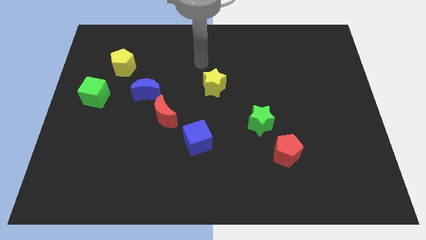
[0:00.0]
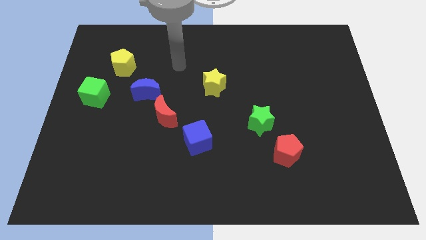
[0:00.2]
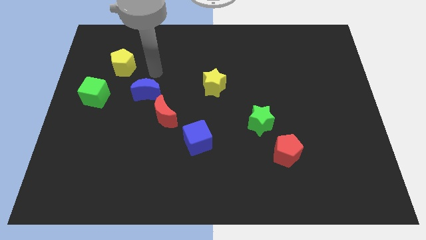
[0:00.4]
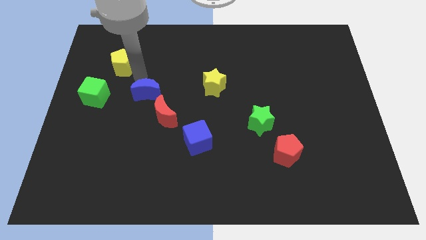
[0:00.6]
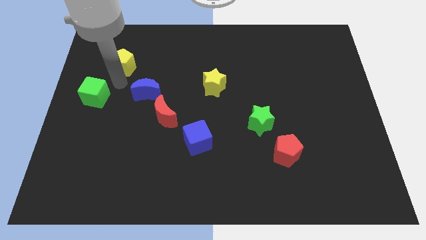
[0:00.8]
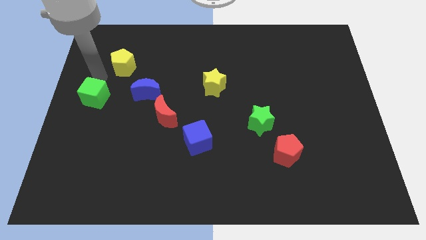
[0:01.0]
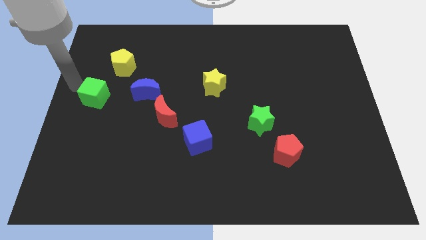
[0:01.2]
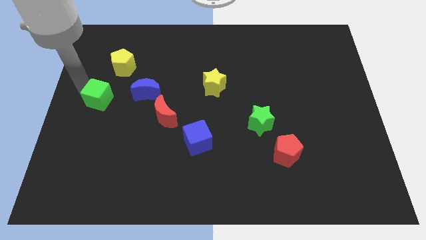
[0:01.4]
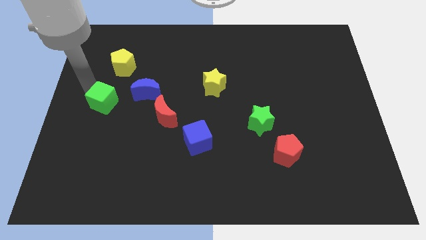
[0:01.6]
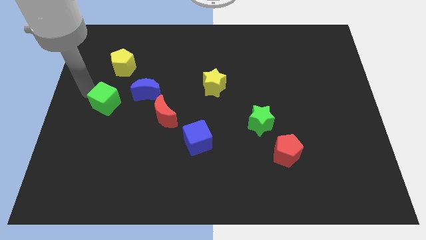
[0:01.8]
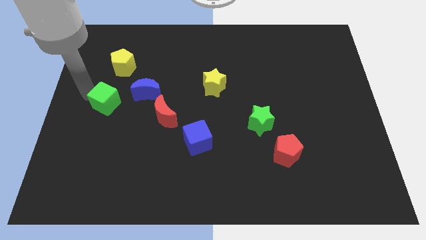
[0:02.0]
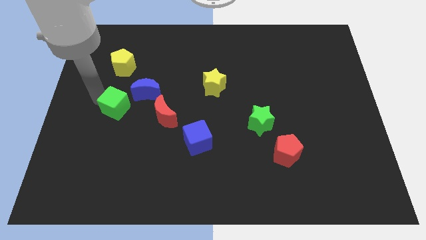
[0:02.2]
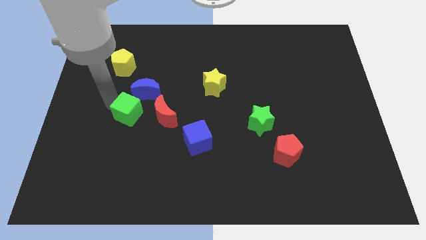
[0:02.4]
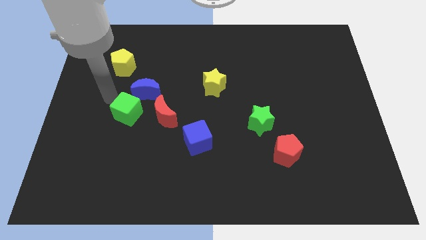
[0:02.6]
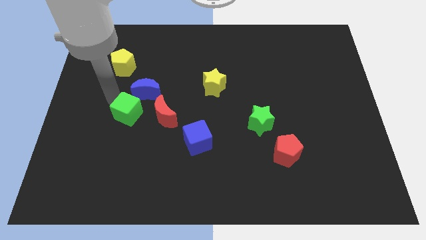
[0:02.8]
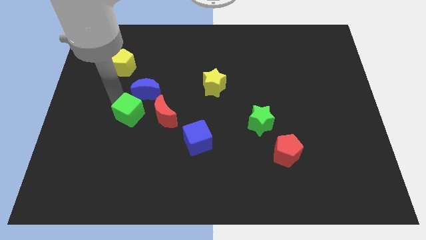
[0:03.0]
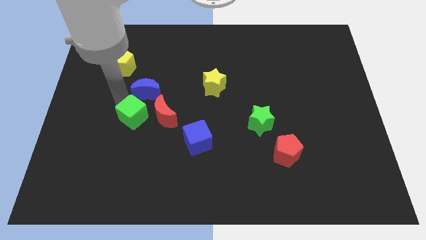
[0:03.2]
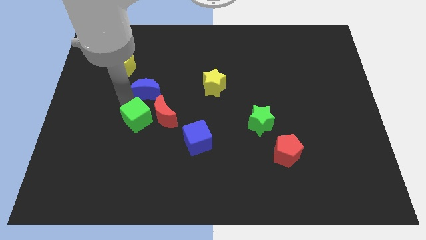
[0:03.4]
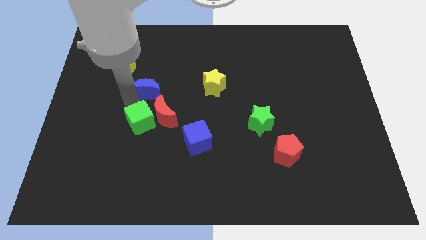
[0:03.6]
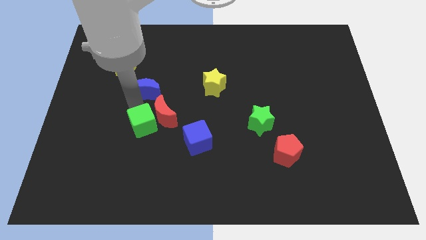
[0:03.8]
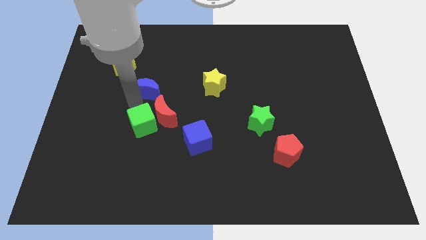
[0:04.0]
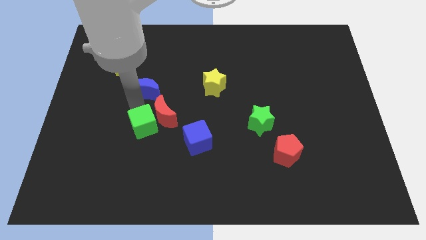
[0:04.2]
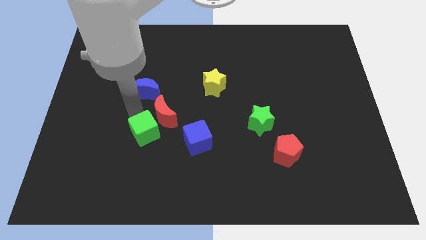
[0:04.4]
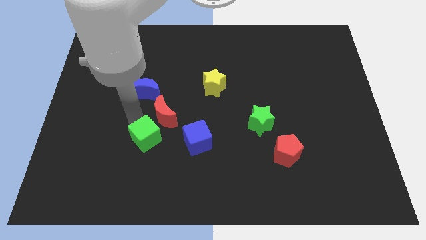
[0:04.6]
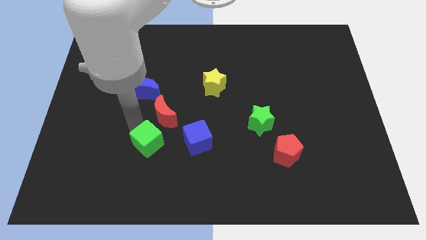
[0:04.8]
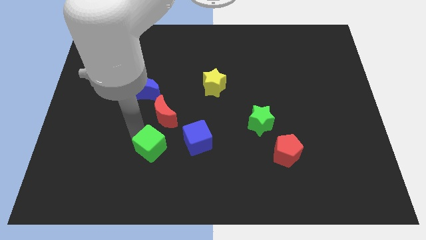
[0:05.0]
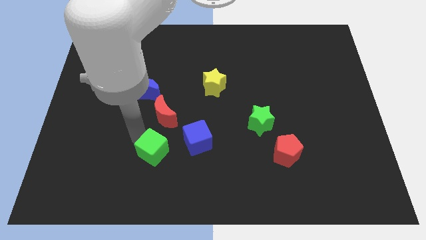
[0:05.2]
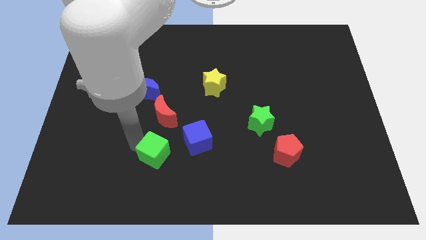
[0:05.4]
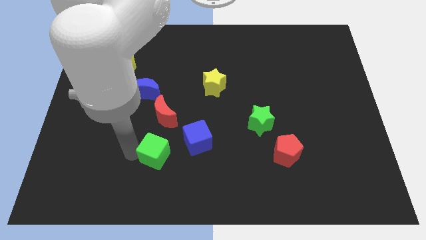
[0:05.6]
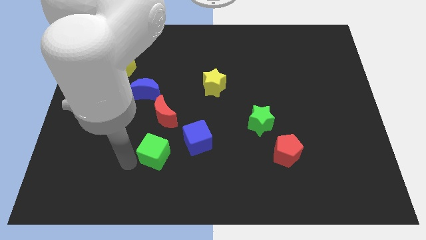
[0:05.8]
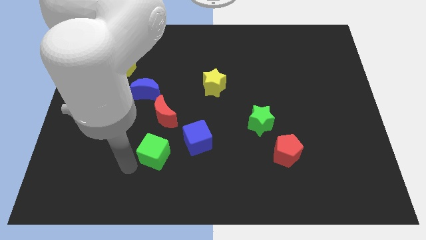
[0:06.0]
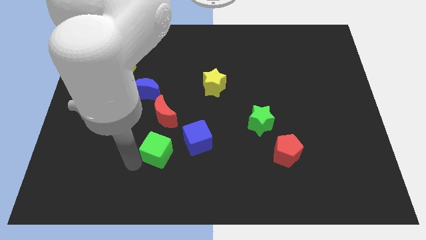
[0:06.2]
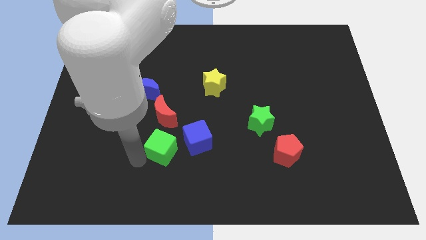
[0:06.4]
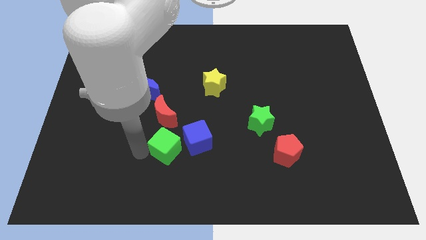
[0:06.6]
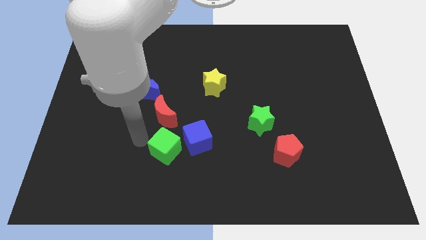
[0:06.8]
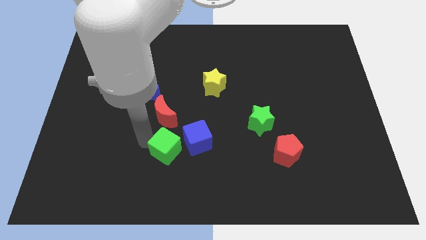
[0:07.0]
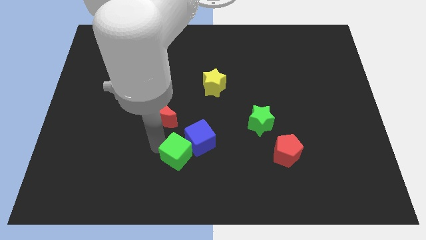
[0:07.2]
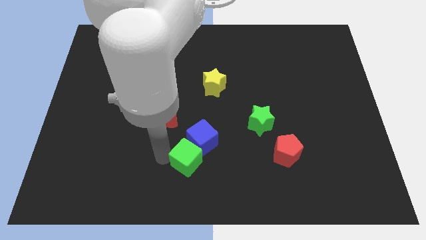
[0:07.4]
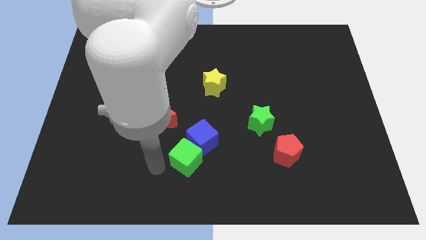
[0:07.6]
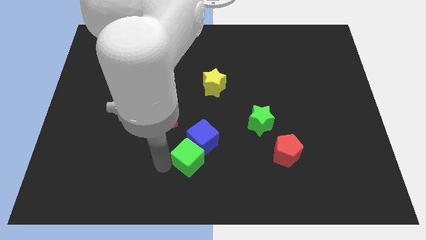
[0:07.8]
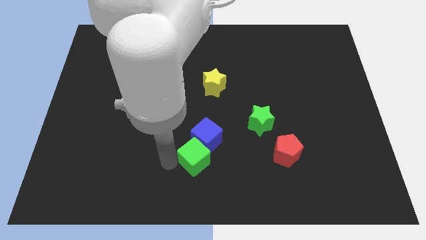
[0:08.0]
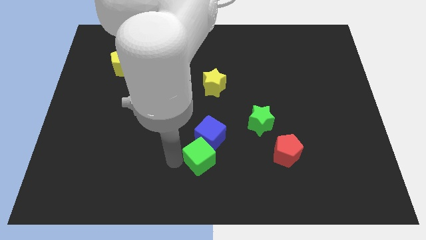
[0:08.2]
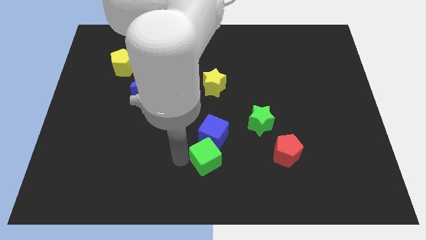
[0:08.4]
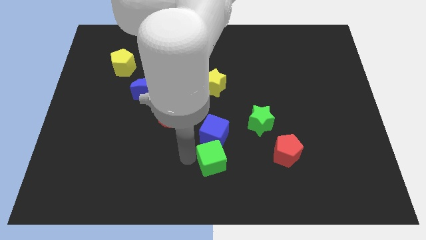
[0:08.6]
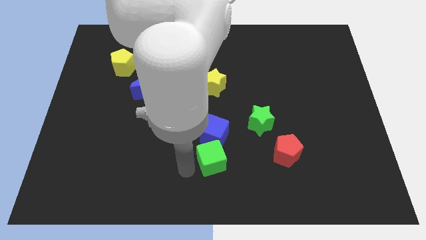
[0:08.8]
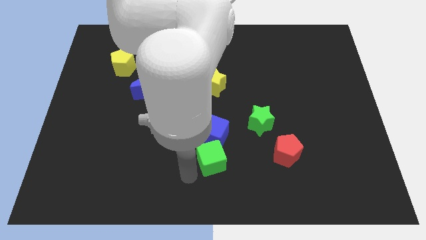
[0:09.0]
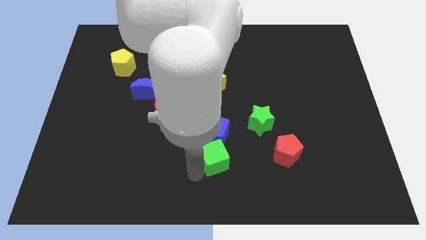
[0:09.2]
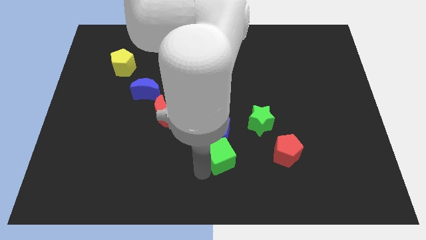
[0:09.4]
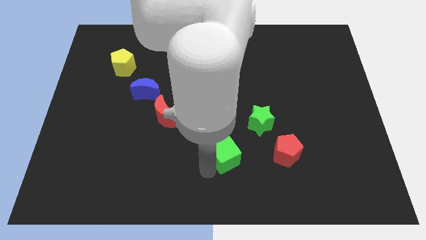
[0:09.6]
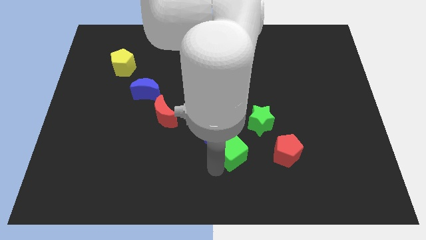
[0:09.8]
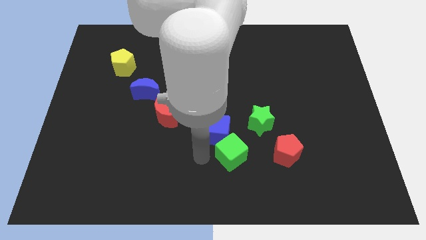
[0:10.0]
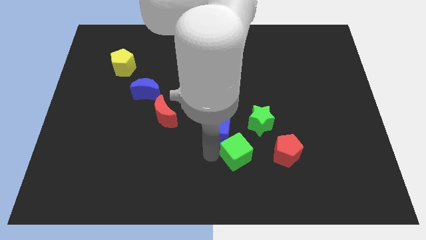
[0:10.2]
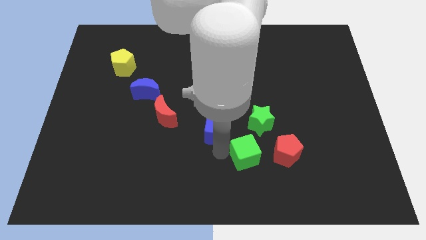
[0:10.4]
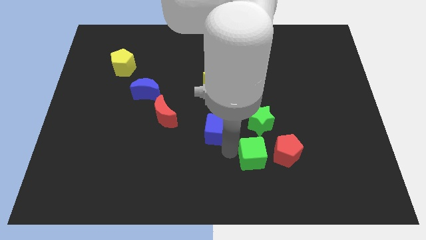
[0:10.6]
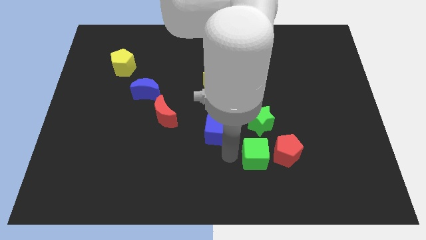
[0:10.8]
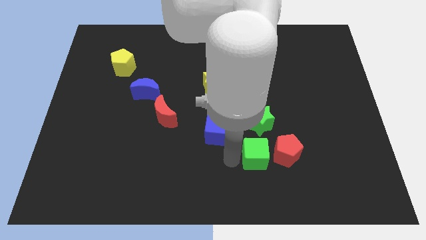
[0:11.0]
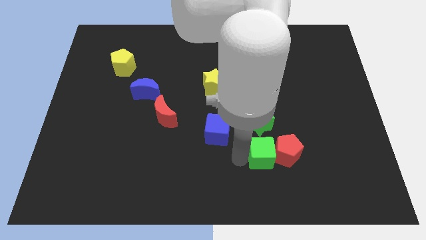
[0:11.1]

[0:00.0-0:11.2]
push the green cube to the red pentagon

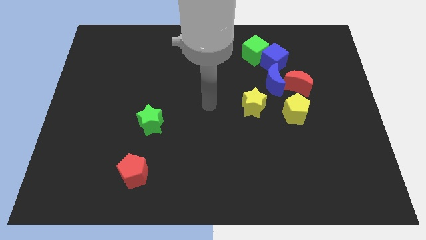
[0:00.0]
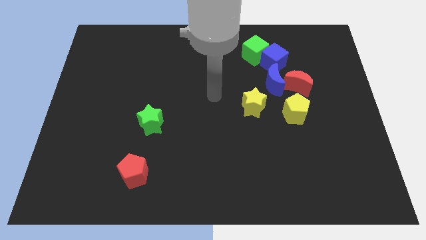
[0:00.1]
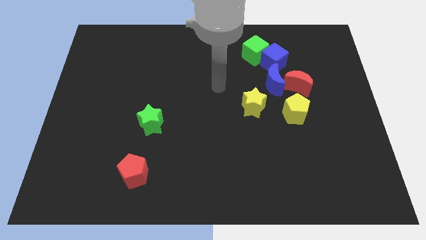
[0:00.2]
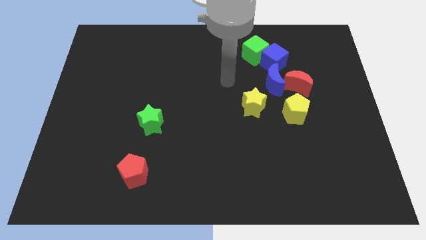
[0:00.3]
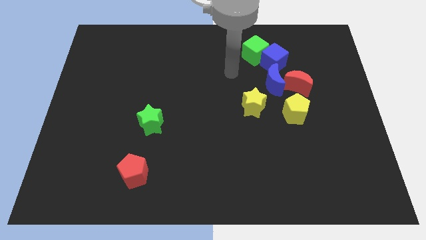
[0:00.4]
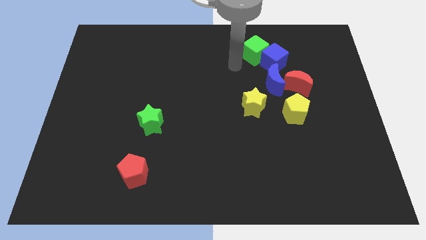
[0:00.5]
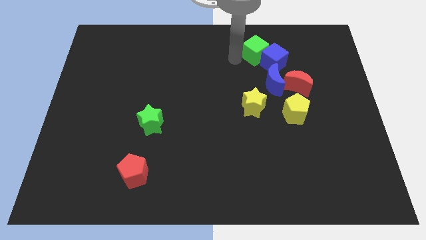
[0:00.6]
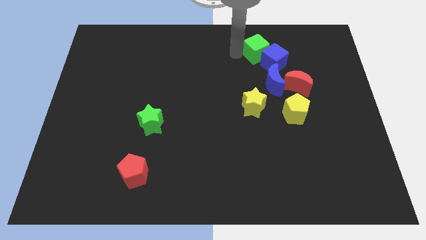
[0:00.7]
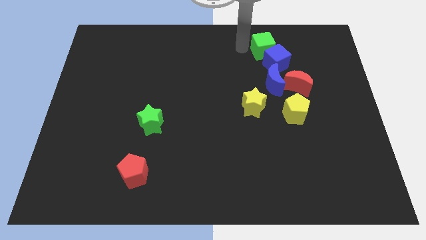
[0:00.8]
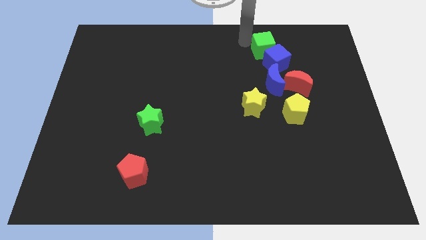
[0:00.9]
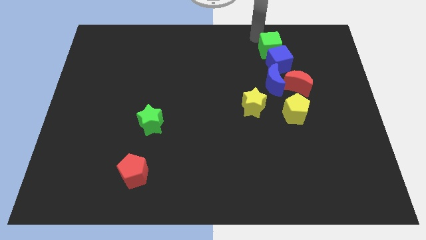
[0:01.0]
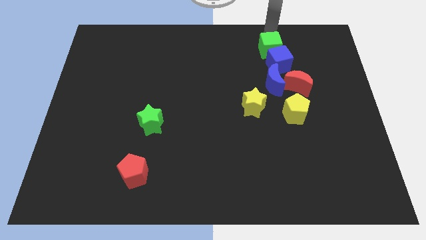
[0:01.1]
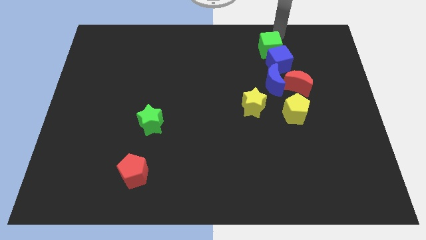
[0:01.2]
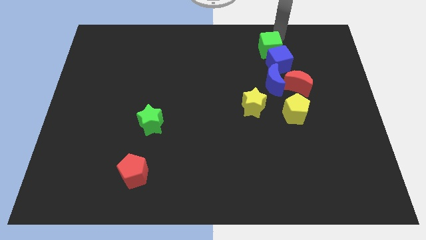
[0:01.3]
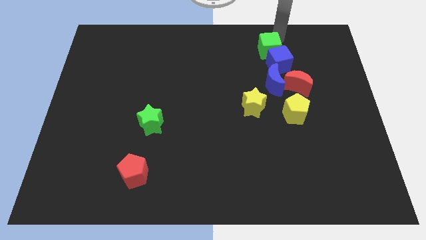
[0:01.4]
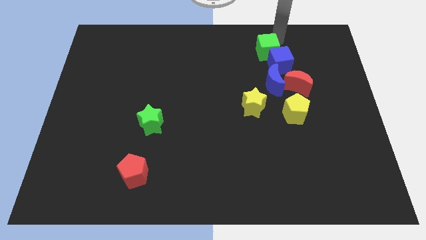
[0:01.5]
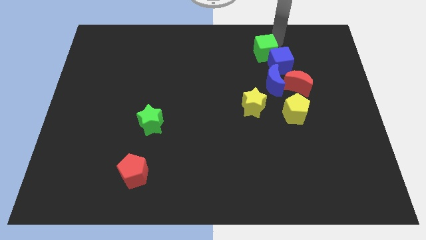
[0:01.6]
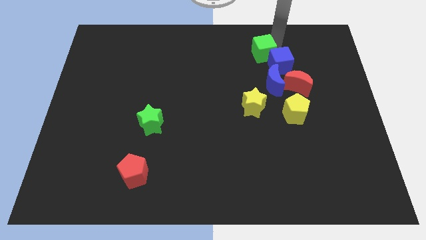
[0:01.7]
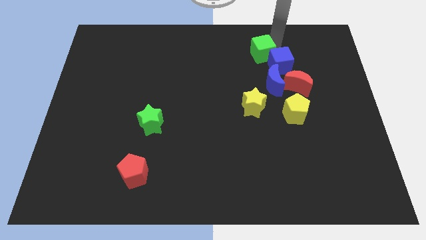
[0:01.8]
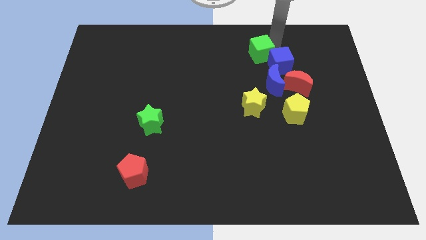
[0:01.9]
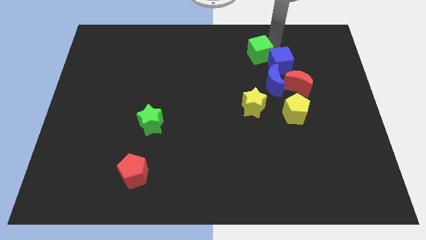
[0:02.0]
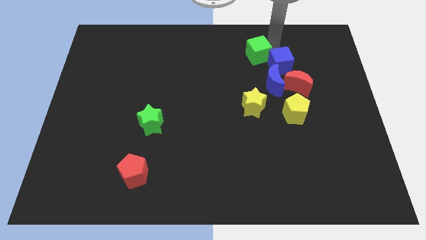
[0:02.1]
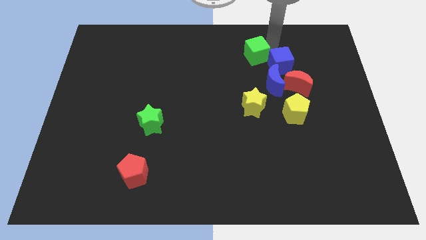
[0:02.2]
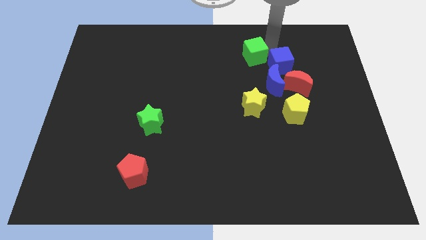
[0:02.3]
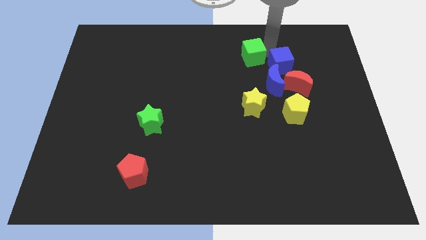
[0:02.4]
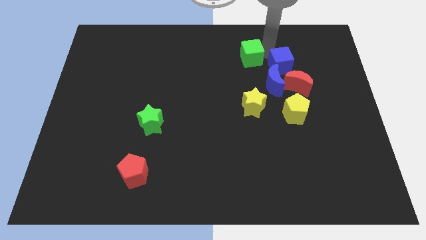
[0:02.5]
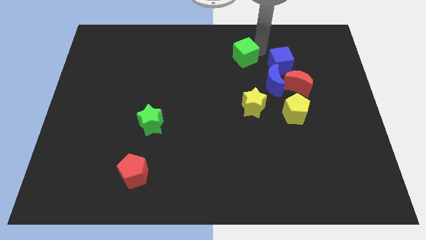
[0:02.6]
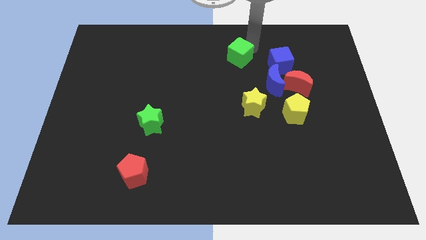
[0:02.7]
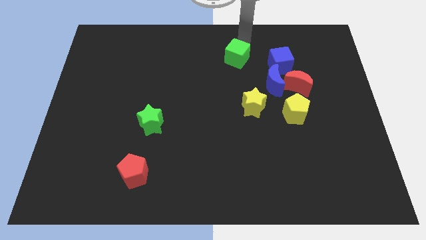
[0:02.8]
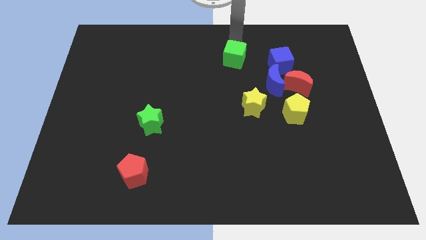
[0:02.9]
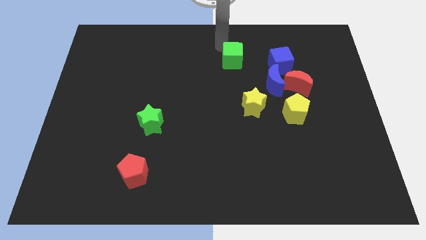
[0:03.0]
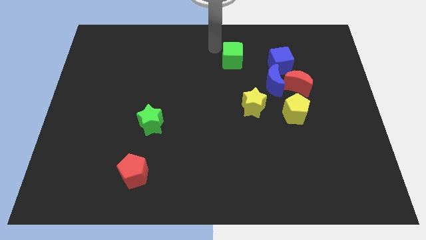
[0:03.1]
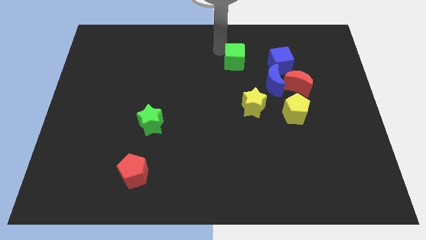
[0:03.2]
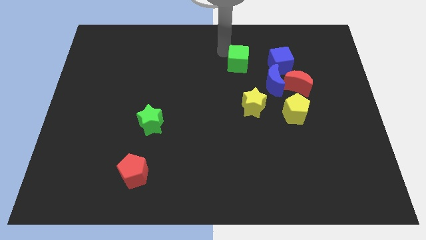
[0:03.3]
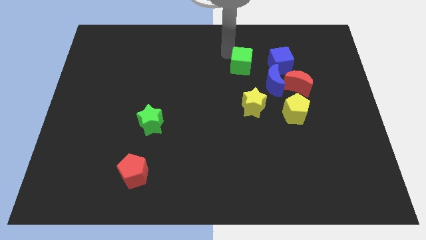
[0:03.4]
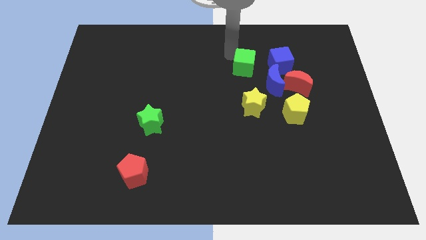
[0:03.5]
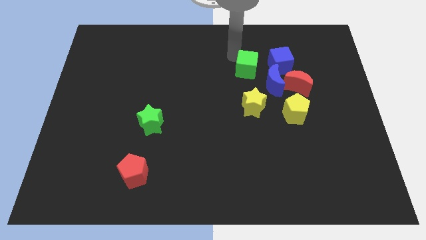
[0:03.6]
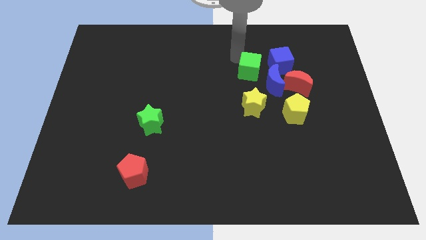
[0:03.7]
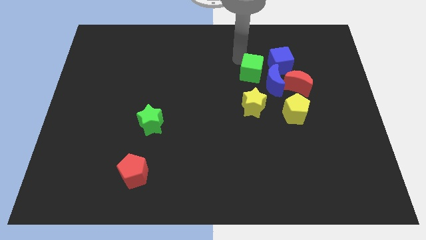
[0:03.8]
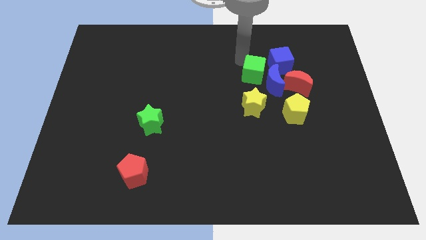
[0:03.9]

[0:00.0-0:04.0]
push the green cube towards the blue moon
